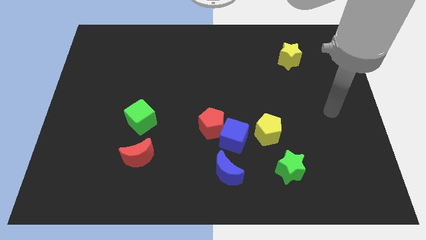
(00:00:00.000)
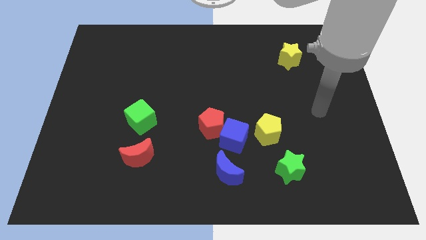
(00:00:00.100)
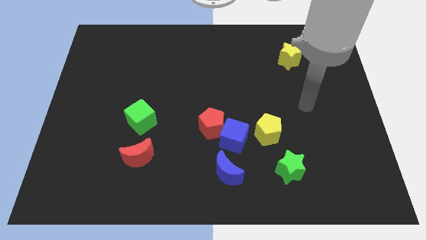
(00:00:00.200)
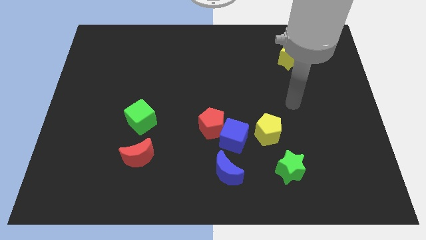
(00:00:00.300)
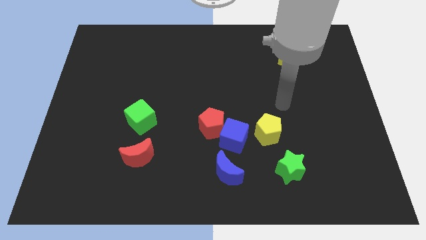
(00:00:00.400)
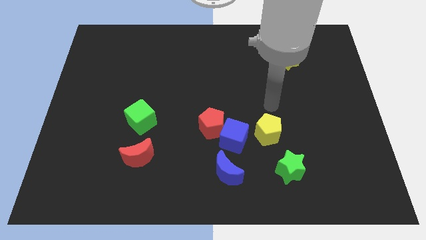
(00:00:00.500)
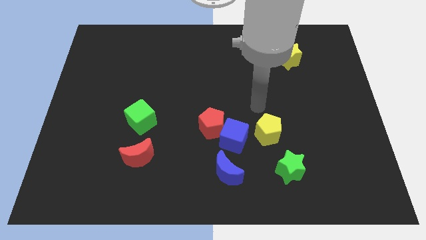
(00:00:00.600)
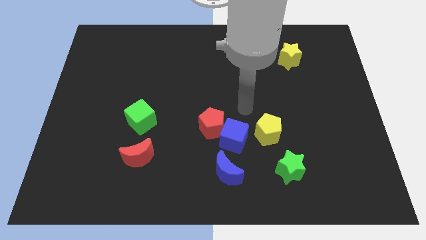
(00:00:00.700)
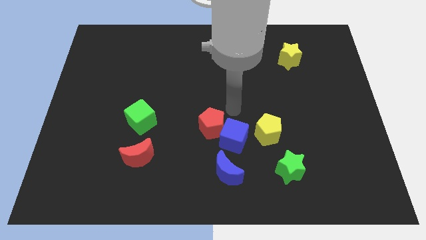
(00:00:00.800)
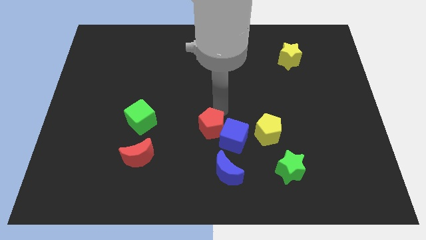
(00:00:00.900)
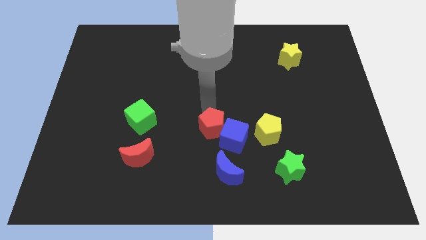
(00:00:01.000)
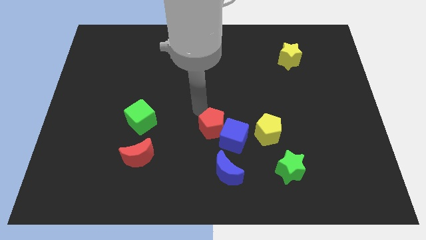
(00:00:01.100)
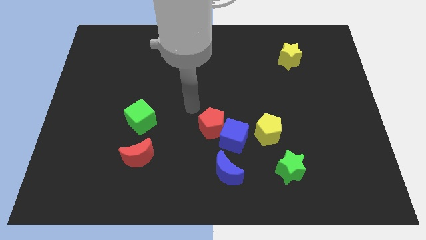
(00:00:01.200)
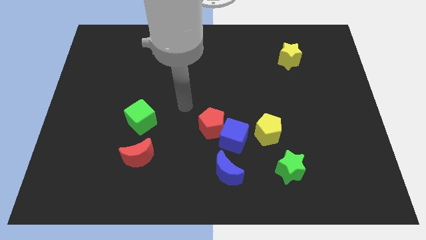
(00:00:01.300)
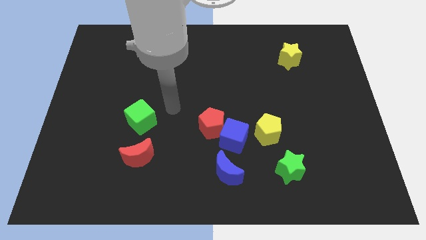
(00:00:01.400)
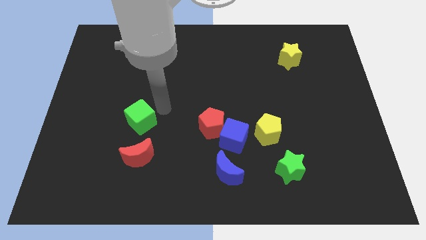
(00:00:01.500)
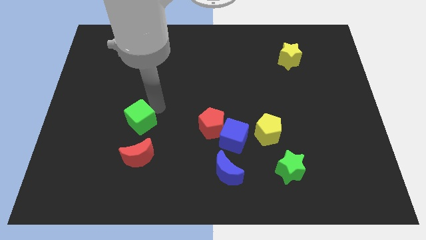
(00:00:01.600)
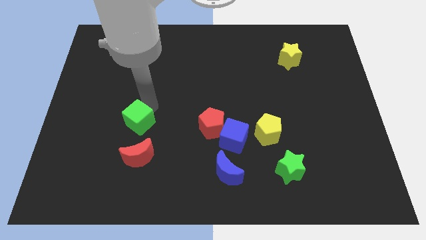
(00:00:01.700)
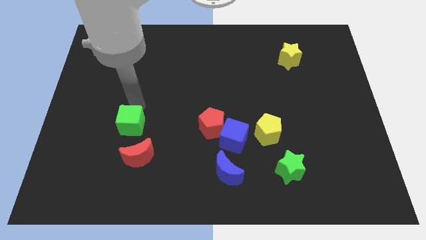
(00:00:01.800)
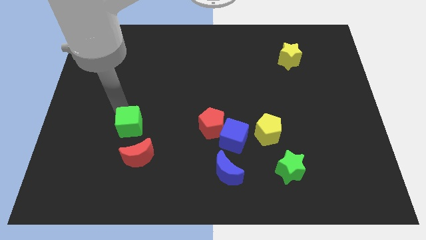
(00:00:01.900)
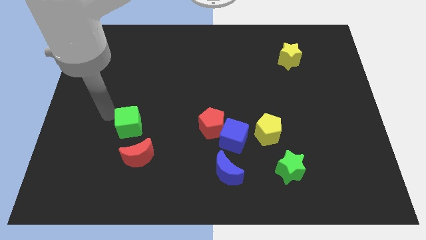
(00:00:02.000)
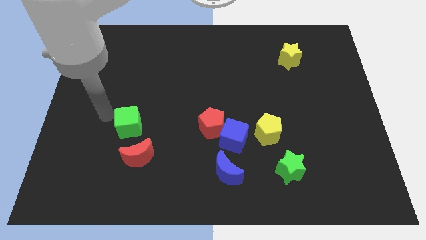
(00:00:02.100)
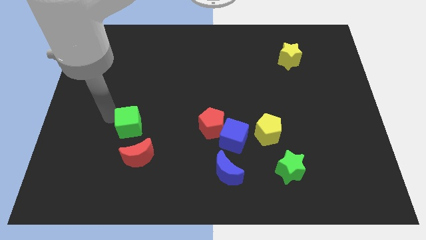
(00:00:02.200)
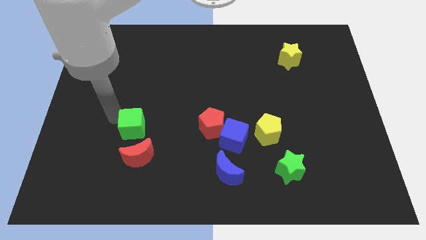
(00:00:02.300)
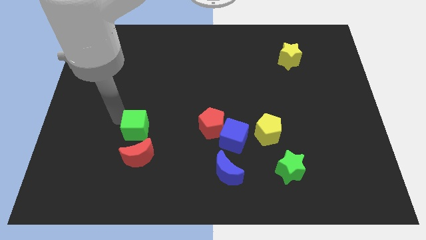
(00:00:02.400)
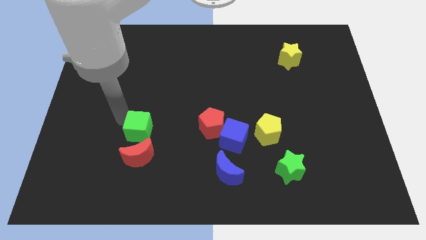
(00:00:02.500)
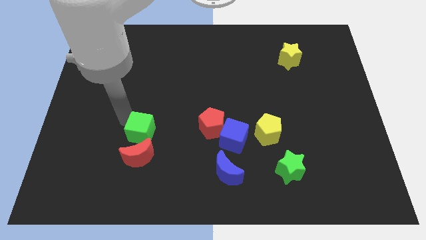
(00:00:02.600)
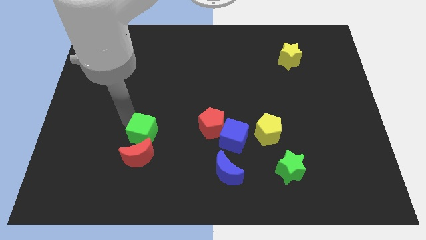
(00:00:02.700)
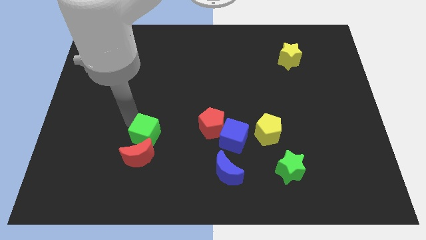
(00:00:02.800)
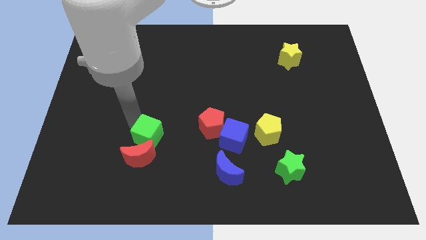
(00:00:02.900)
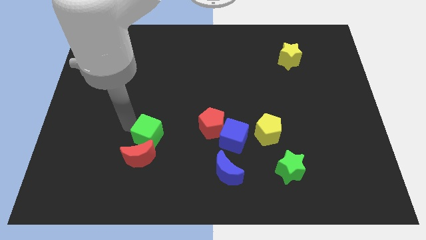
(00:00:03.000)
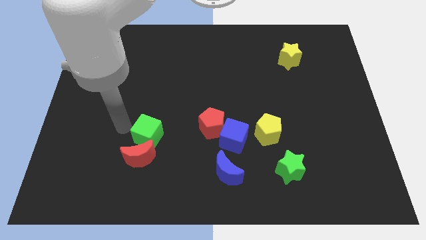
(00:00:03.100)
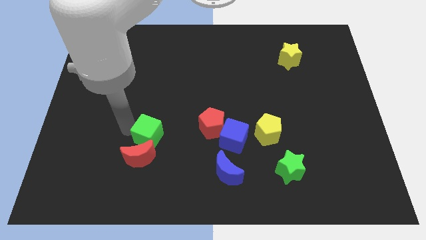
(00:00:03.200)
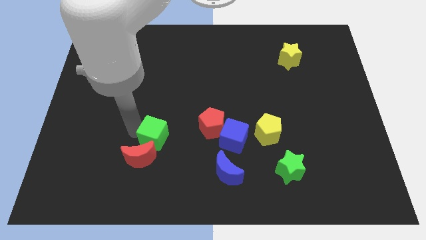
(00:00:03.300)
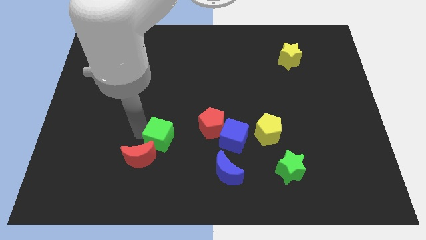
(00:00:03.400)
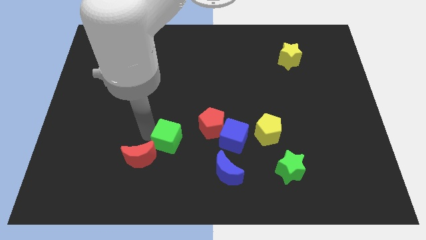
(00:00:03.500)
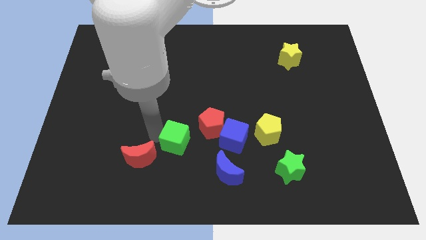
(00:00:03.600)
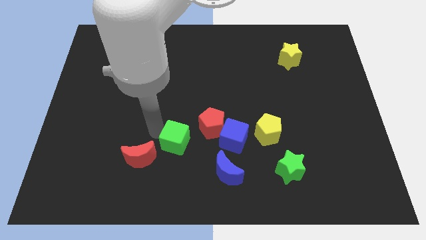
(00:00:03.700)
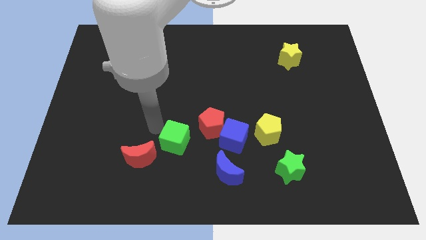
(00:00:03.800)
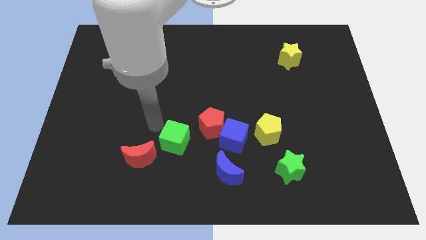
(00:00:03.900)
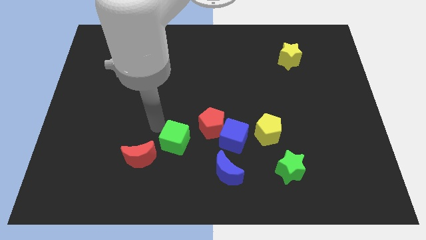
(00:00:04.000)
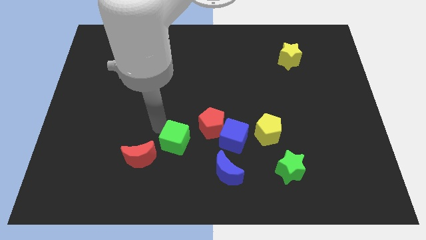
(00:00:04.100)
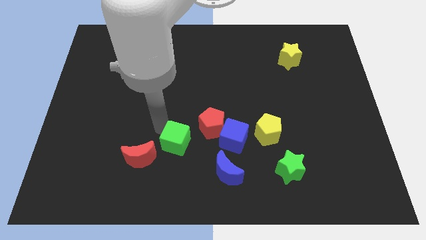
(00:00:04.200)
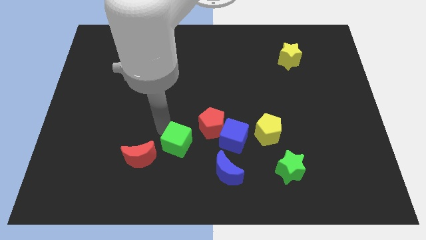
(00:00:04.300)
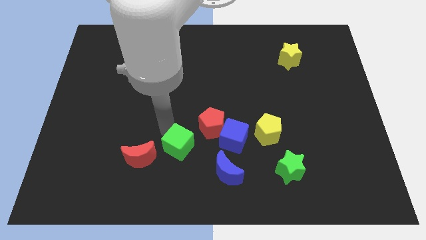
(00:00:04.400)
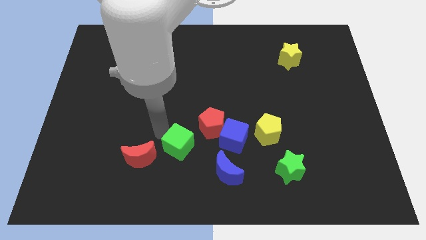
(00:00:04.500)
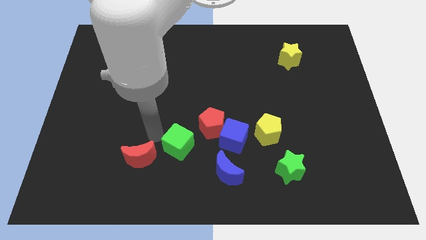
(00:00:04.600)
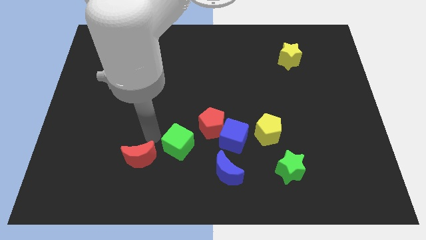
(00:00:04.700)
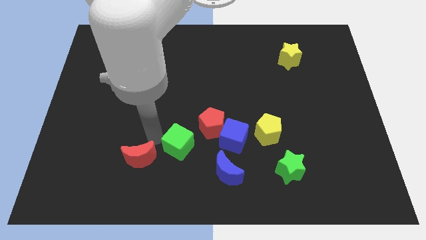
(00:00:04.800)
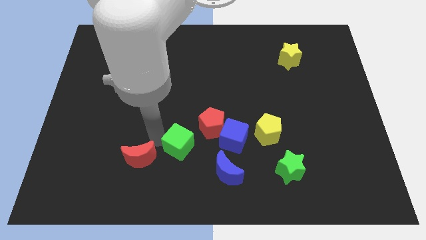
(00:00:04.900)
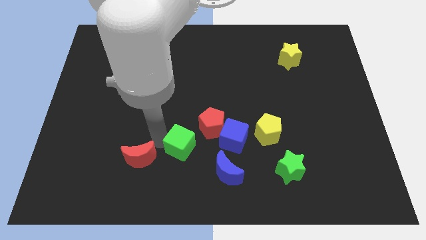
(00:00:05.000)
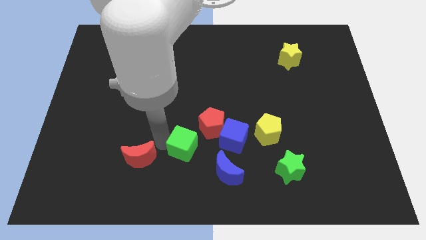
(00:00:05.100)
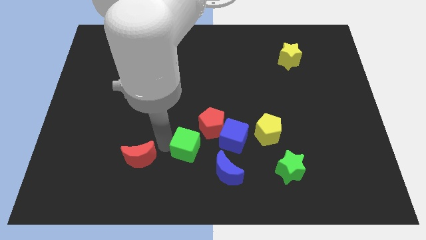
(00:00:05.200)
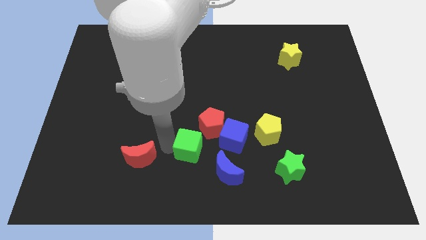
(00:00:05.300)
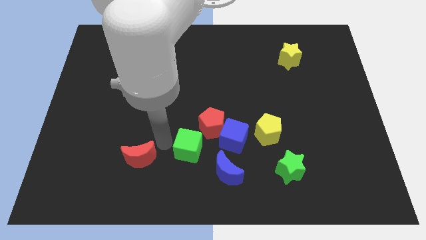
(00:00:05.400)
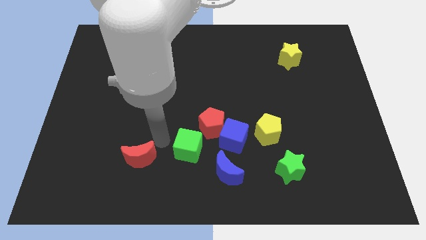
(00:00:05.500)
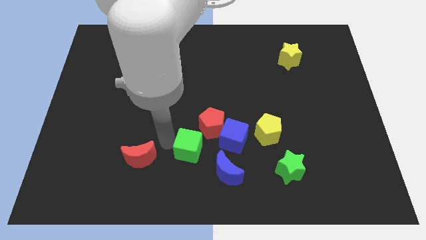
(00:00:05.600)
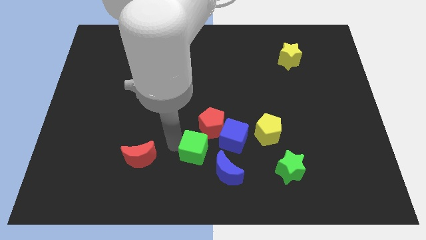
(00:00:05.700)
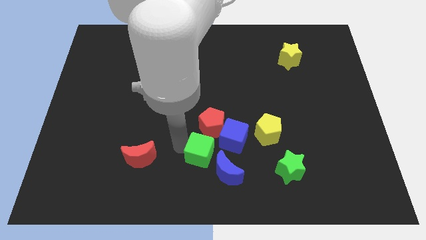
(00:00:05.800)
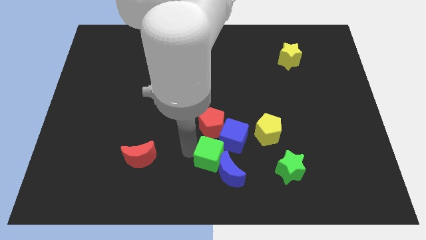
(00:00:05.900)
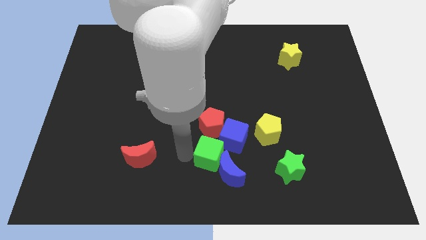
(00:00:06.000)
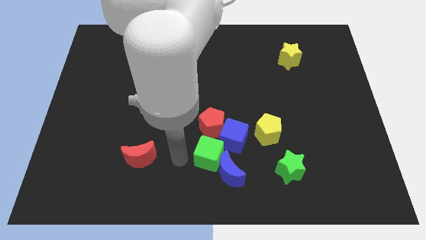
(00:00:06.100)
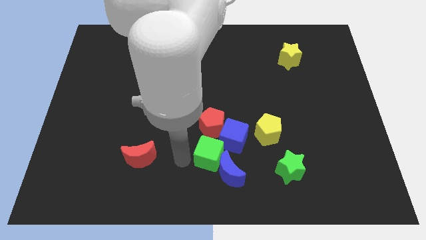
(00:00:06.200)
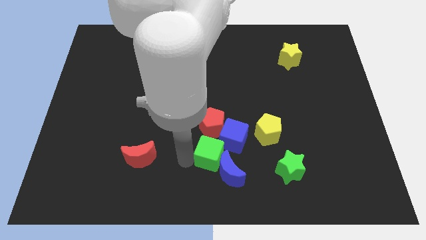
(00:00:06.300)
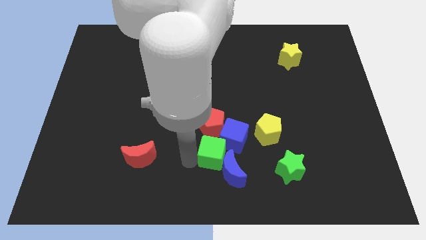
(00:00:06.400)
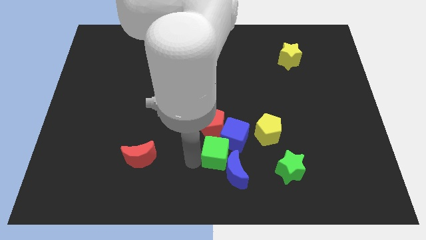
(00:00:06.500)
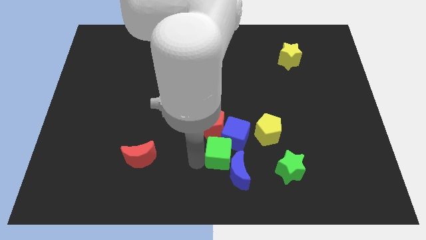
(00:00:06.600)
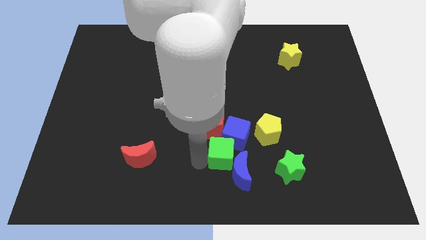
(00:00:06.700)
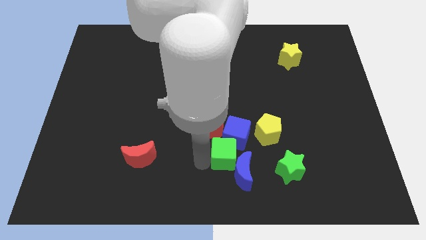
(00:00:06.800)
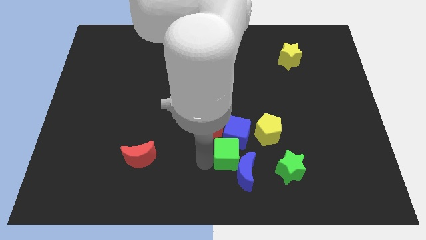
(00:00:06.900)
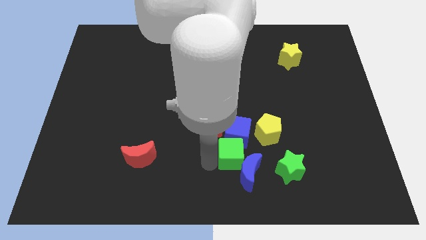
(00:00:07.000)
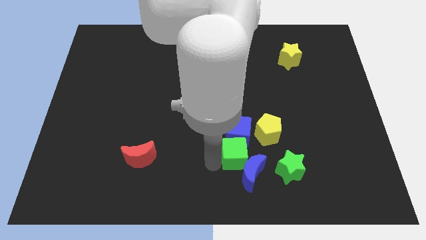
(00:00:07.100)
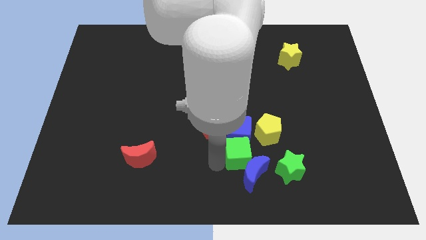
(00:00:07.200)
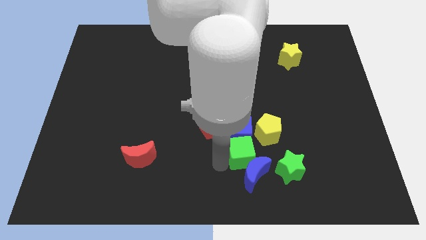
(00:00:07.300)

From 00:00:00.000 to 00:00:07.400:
move the green cube to the top left of the green star

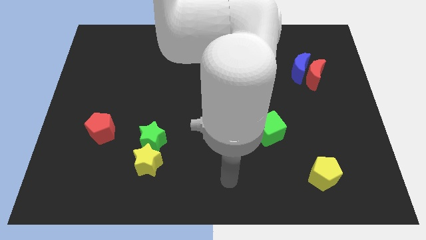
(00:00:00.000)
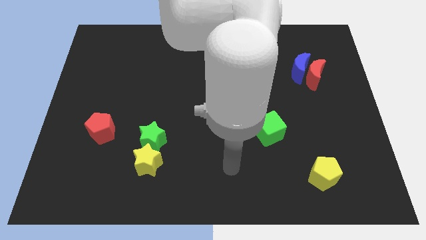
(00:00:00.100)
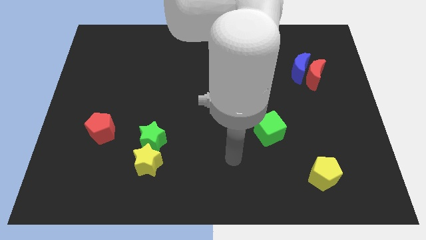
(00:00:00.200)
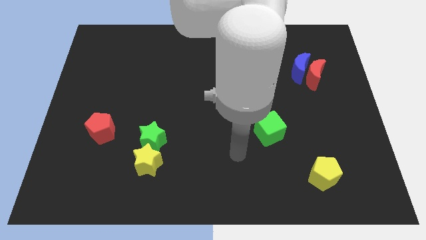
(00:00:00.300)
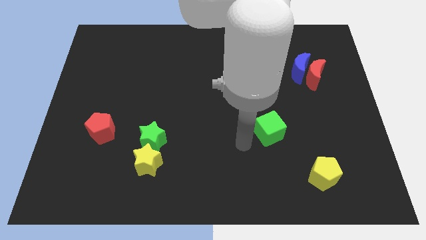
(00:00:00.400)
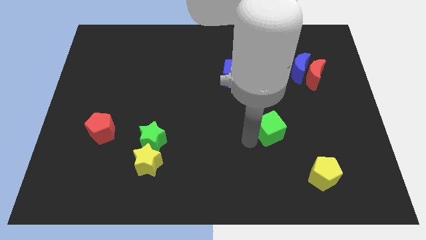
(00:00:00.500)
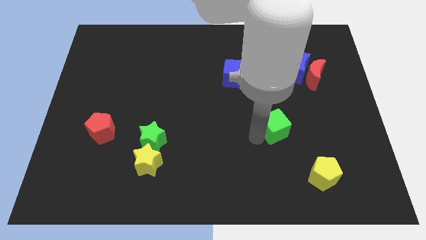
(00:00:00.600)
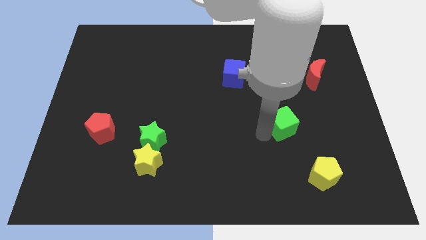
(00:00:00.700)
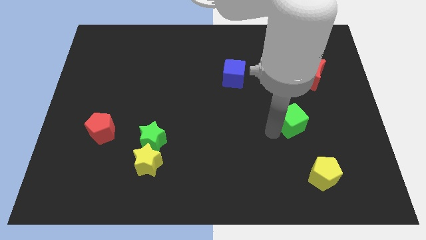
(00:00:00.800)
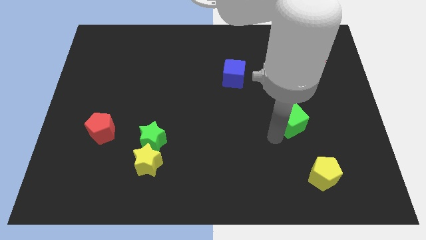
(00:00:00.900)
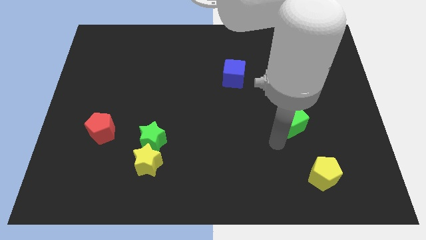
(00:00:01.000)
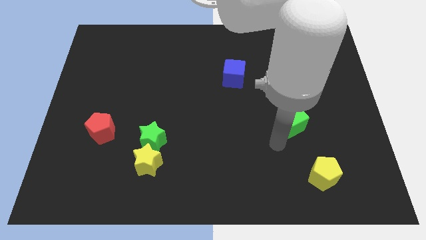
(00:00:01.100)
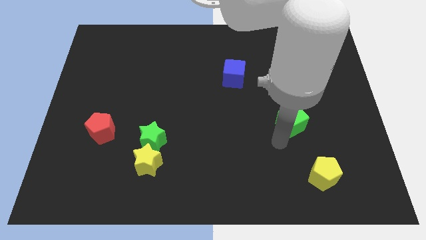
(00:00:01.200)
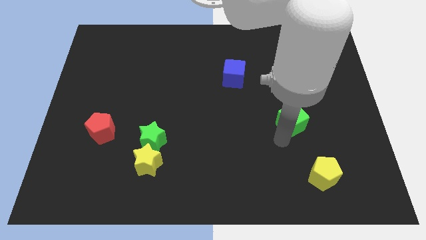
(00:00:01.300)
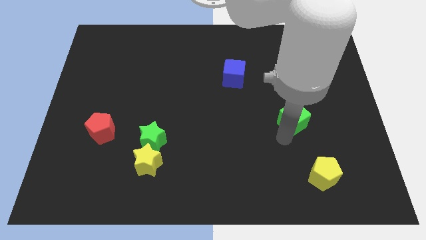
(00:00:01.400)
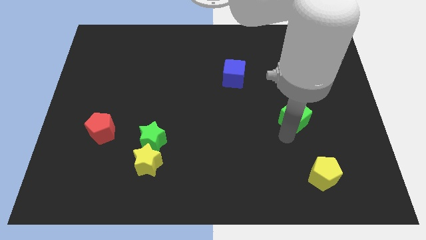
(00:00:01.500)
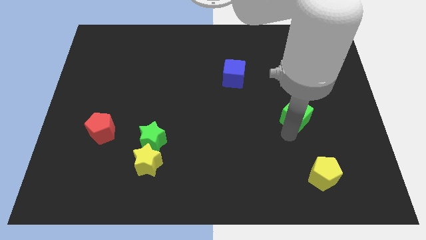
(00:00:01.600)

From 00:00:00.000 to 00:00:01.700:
put the green cube to the bottom of the blue moon
